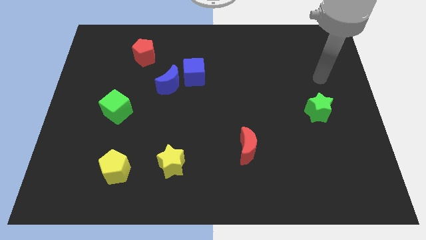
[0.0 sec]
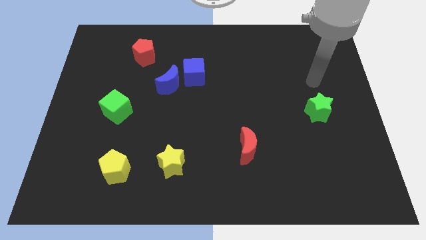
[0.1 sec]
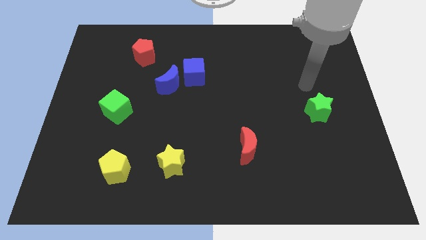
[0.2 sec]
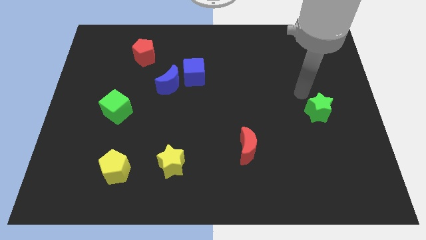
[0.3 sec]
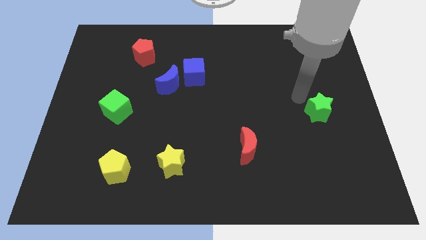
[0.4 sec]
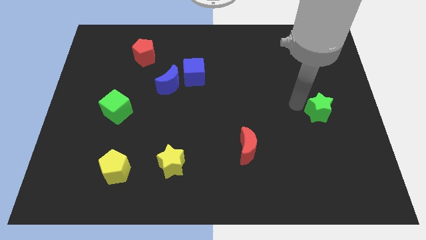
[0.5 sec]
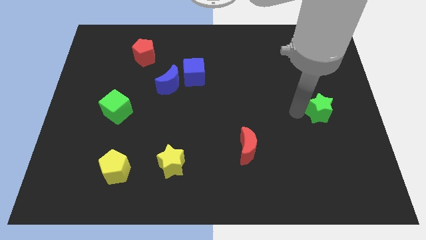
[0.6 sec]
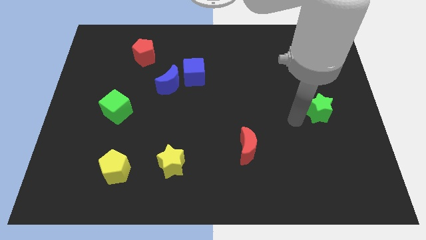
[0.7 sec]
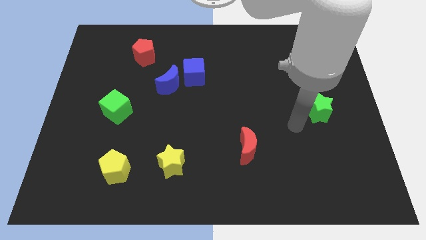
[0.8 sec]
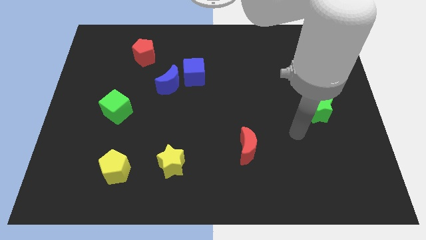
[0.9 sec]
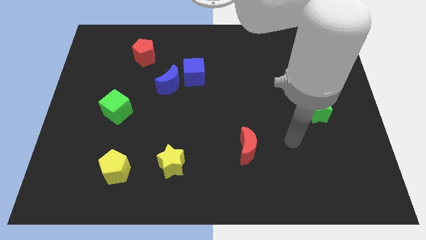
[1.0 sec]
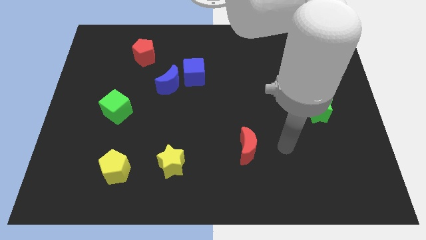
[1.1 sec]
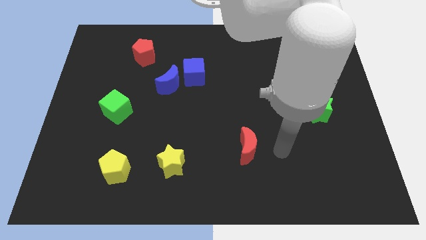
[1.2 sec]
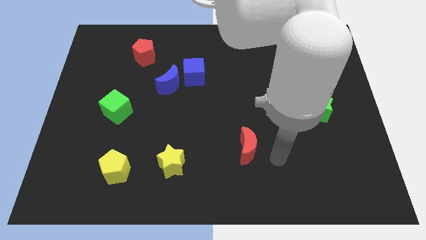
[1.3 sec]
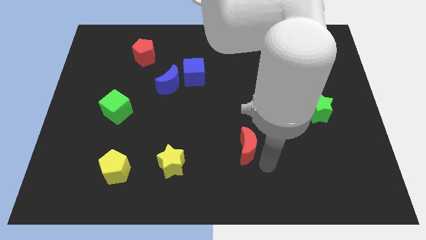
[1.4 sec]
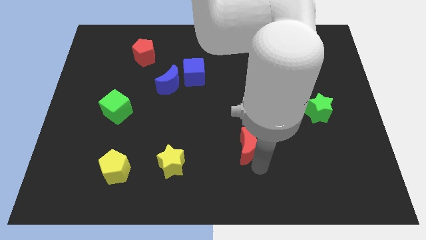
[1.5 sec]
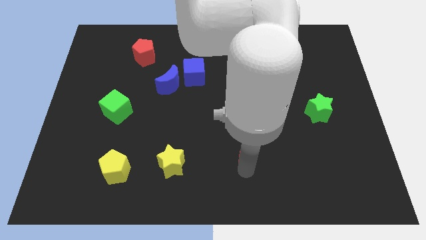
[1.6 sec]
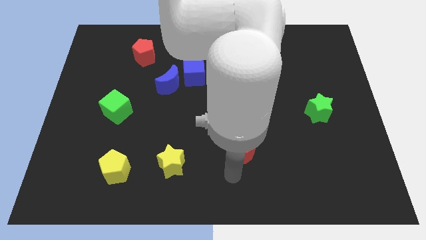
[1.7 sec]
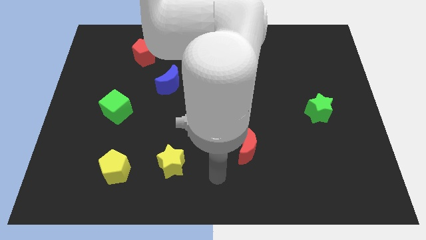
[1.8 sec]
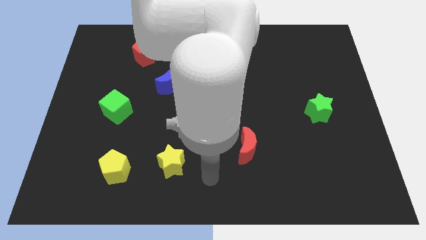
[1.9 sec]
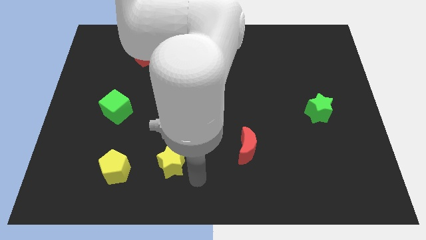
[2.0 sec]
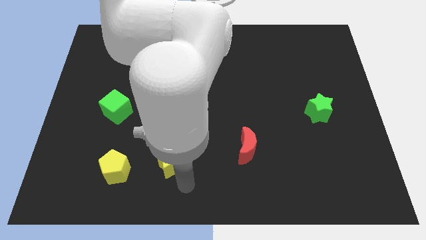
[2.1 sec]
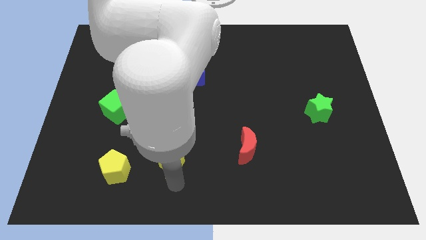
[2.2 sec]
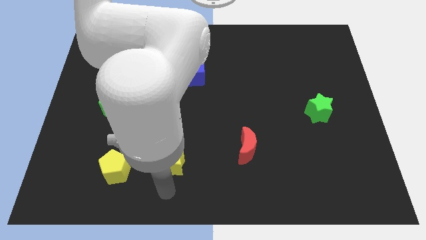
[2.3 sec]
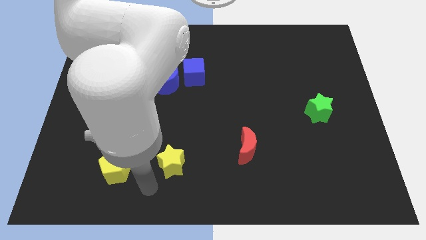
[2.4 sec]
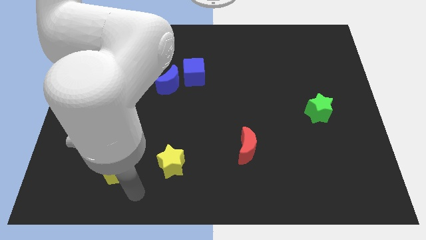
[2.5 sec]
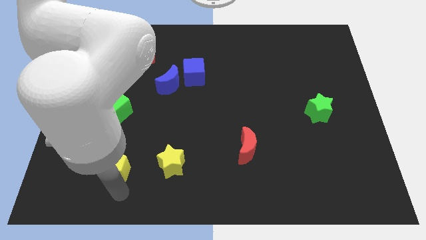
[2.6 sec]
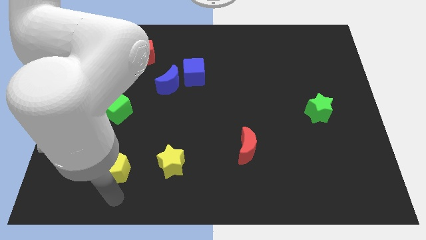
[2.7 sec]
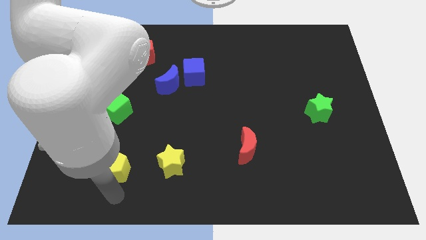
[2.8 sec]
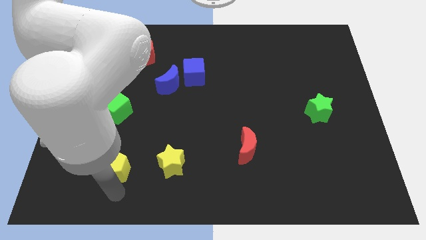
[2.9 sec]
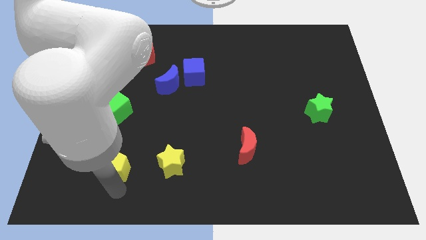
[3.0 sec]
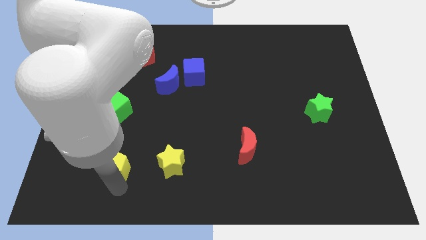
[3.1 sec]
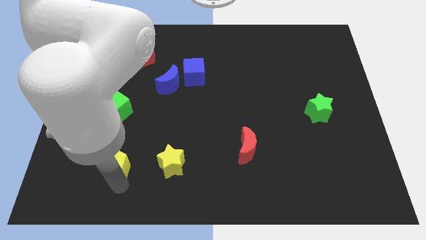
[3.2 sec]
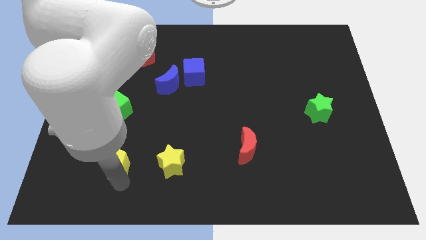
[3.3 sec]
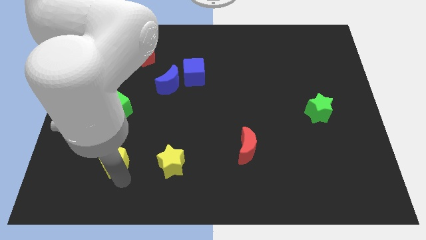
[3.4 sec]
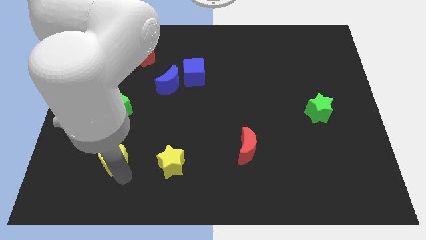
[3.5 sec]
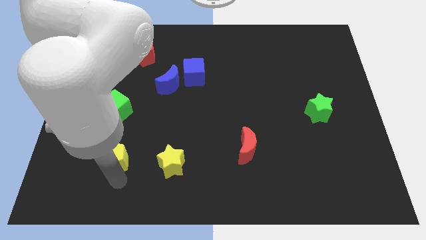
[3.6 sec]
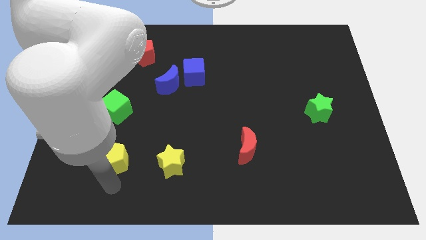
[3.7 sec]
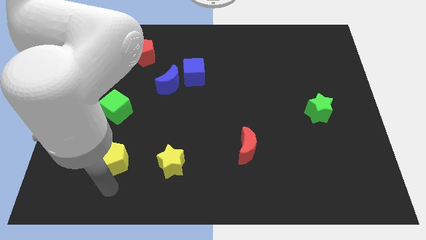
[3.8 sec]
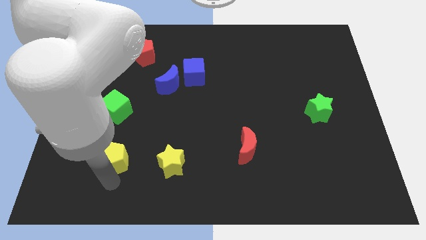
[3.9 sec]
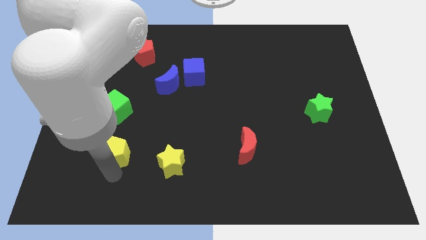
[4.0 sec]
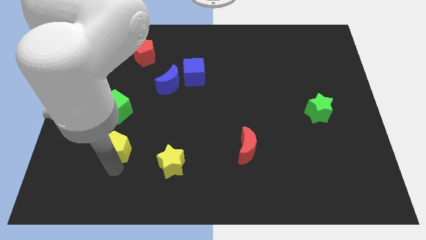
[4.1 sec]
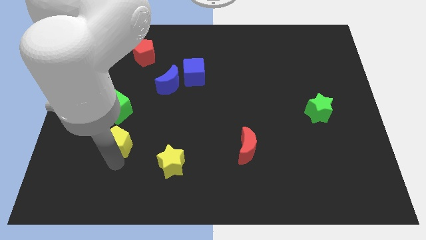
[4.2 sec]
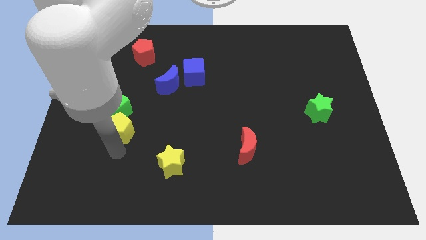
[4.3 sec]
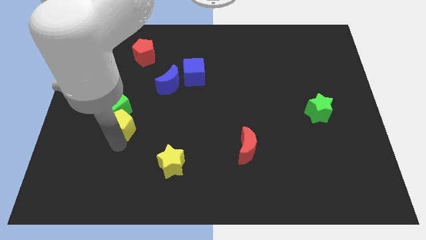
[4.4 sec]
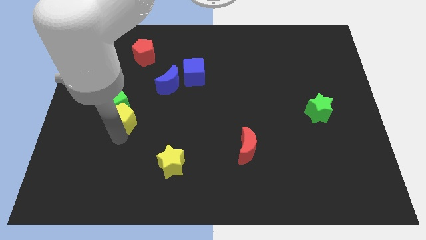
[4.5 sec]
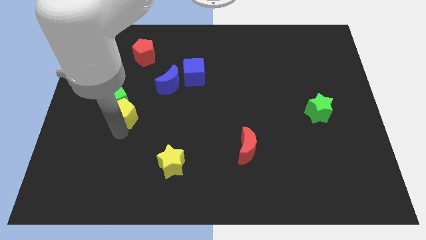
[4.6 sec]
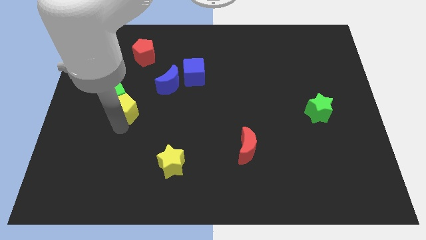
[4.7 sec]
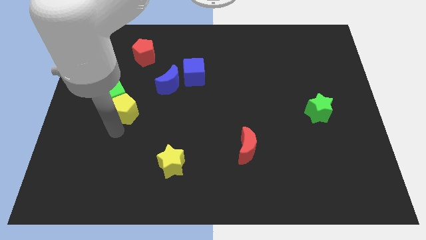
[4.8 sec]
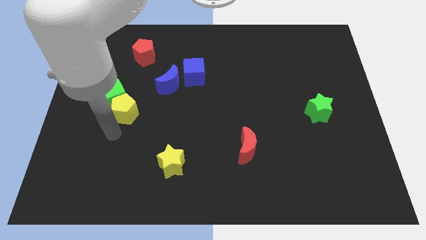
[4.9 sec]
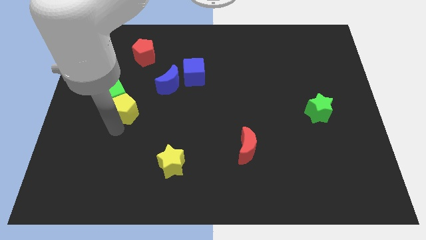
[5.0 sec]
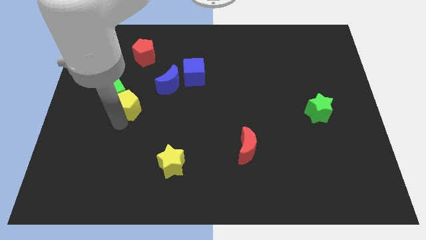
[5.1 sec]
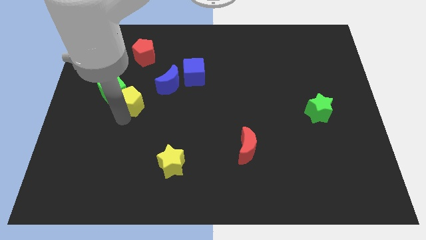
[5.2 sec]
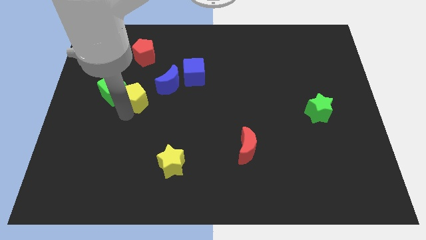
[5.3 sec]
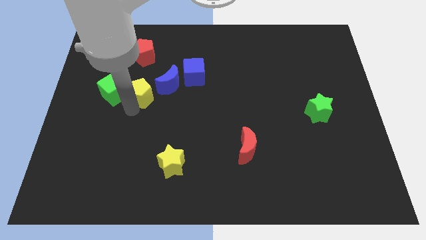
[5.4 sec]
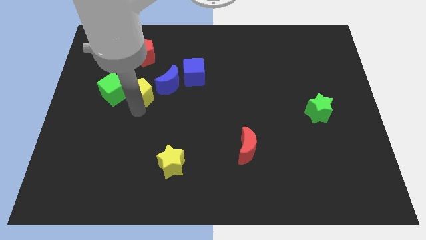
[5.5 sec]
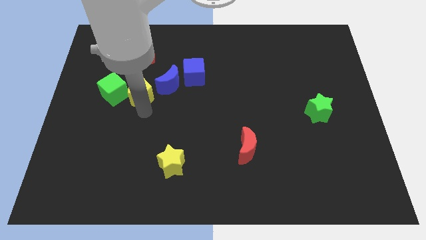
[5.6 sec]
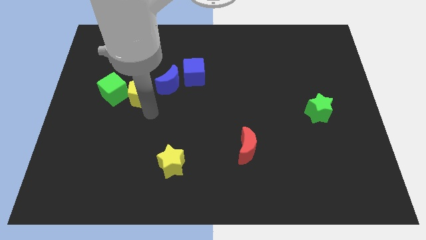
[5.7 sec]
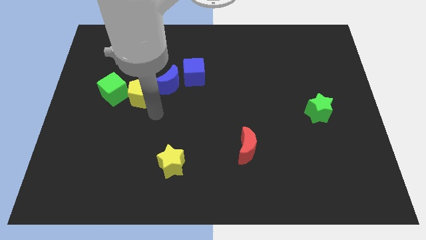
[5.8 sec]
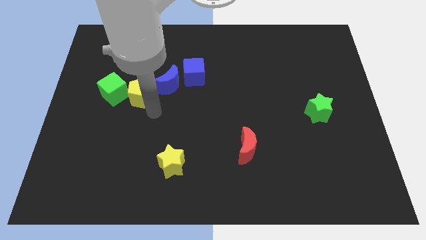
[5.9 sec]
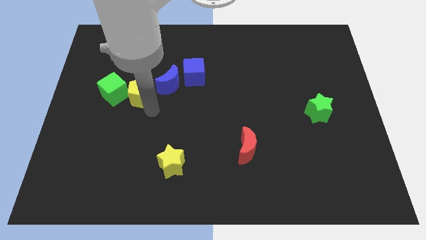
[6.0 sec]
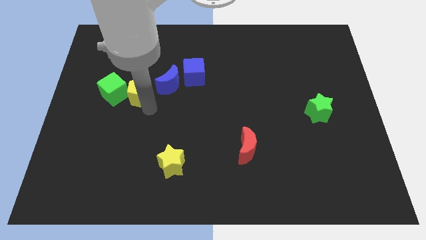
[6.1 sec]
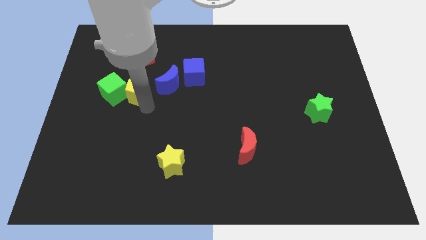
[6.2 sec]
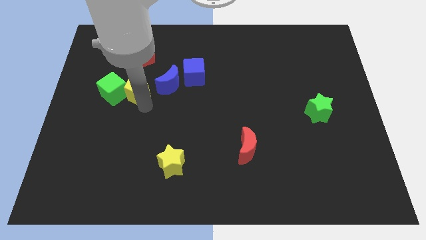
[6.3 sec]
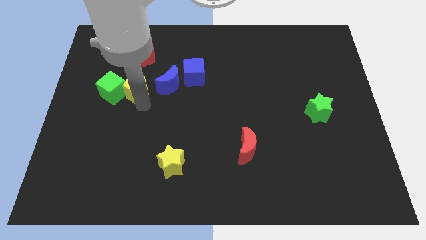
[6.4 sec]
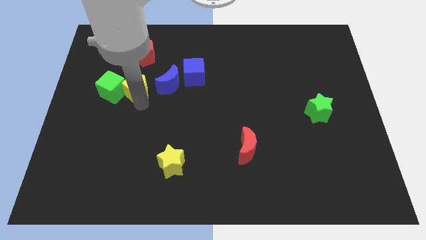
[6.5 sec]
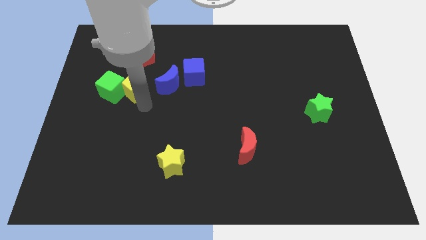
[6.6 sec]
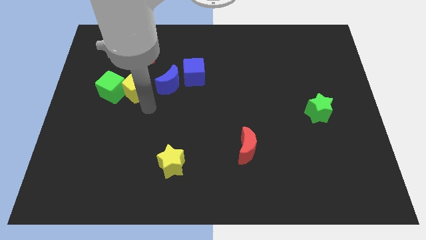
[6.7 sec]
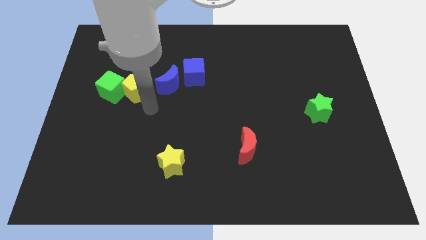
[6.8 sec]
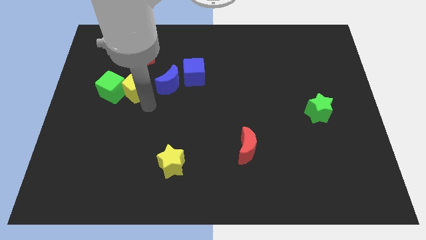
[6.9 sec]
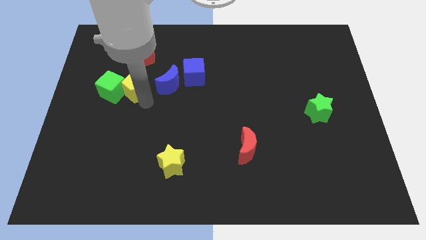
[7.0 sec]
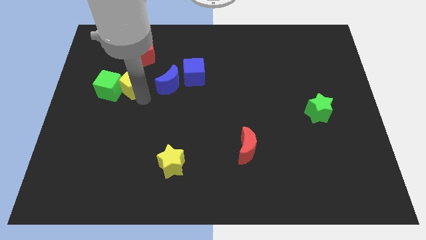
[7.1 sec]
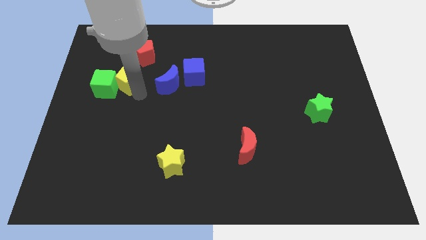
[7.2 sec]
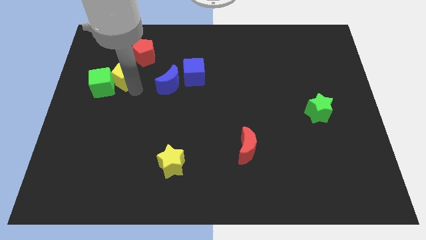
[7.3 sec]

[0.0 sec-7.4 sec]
put the yellow pentagon to the bottom left of the red pentagon
